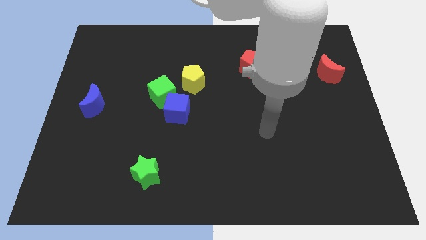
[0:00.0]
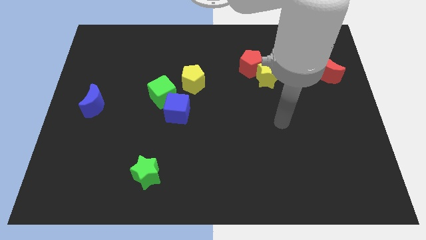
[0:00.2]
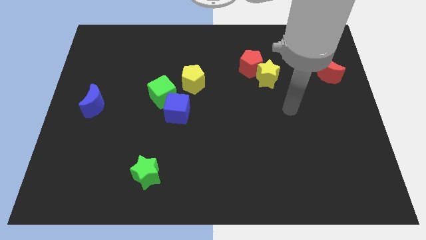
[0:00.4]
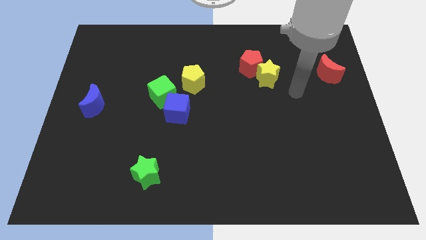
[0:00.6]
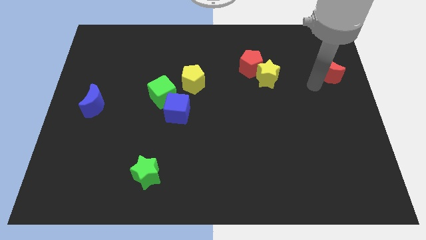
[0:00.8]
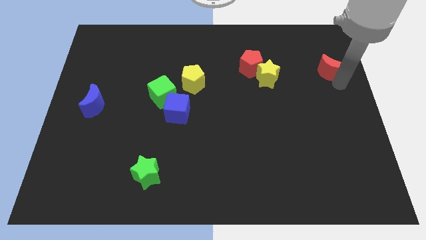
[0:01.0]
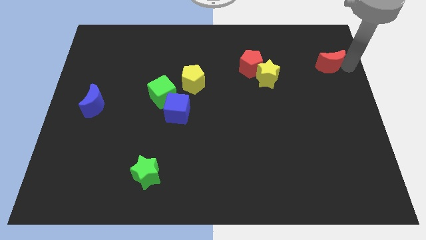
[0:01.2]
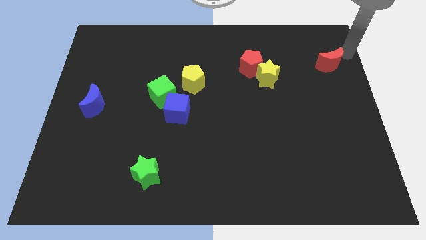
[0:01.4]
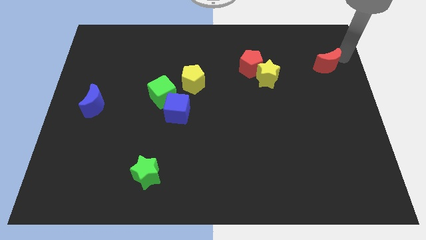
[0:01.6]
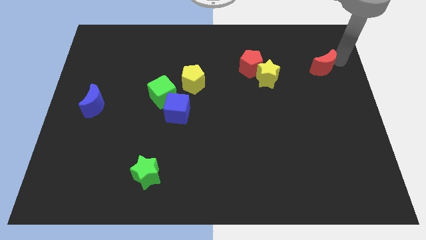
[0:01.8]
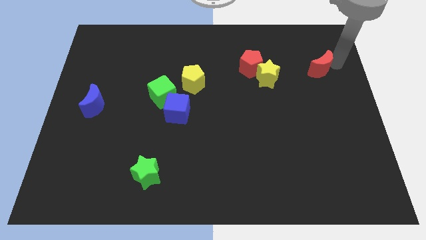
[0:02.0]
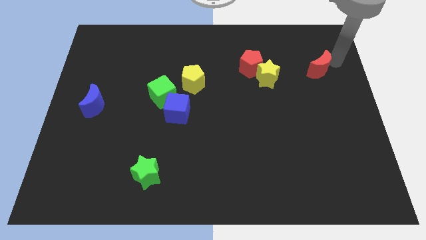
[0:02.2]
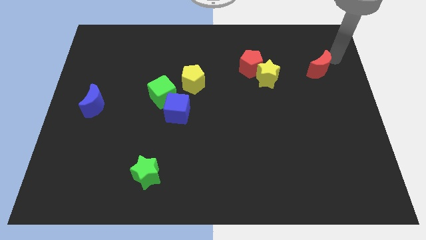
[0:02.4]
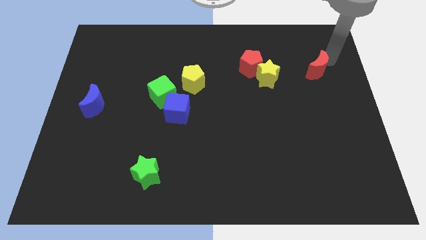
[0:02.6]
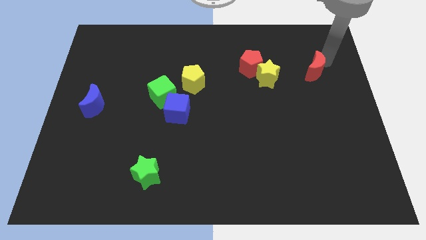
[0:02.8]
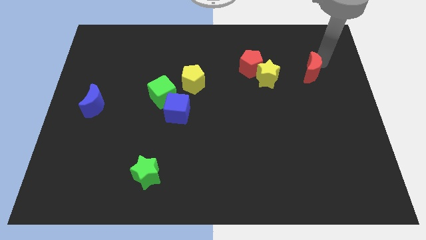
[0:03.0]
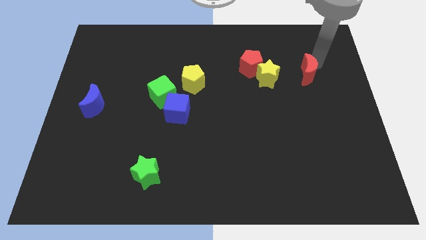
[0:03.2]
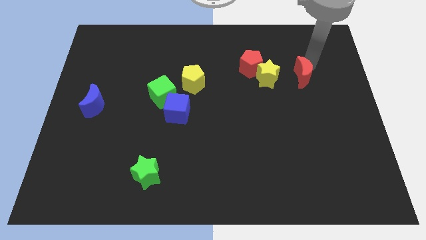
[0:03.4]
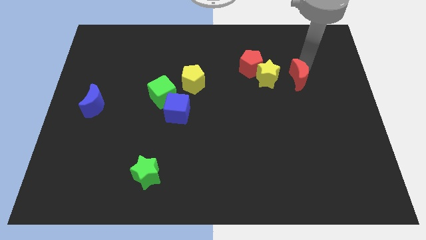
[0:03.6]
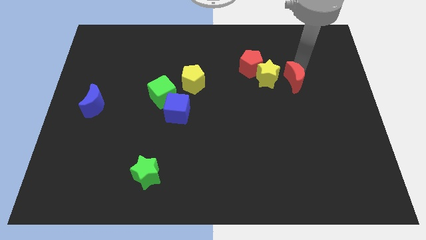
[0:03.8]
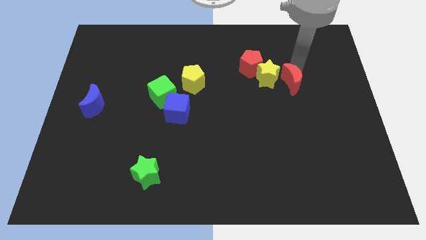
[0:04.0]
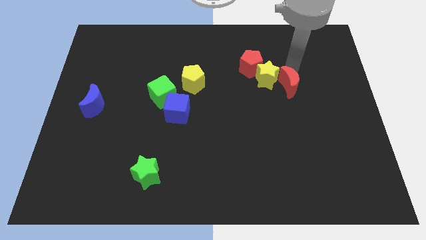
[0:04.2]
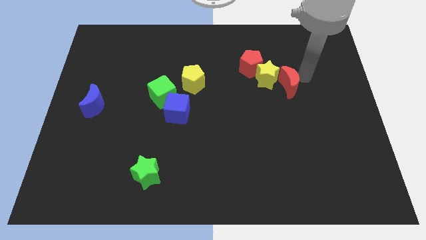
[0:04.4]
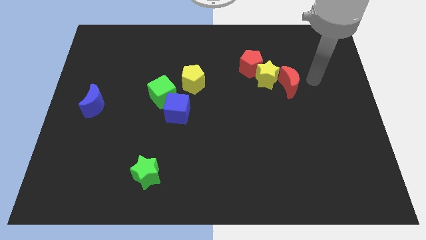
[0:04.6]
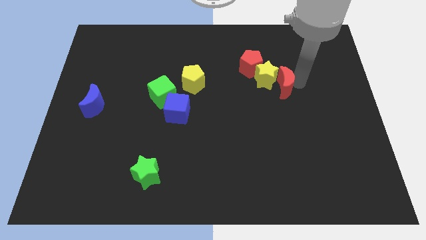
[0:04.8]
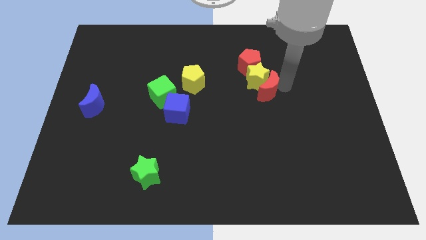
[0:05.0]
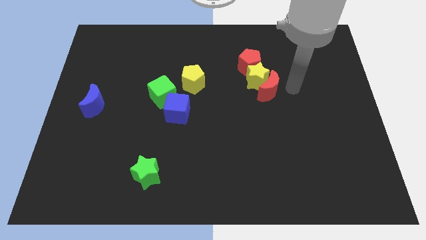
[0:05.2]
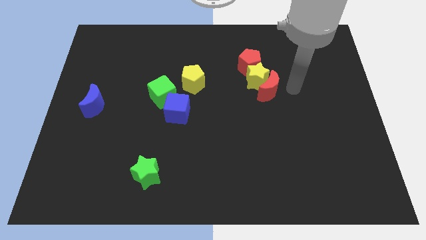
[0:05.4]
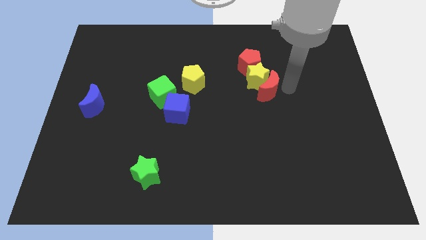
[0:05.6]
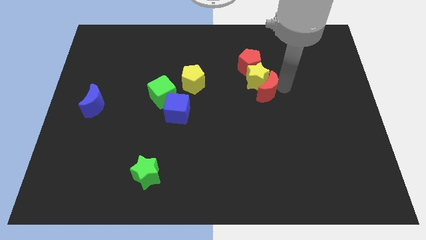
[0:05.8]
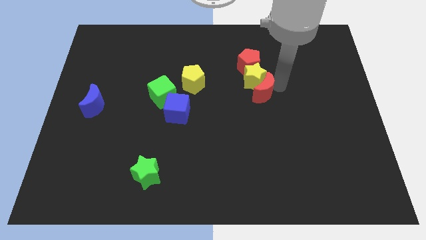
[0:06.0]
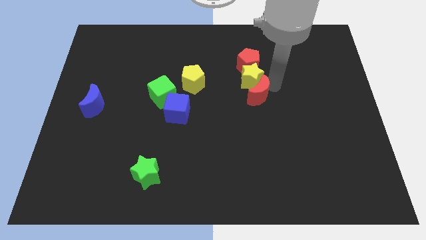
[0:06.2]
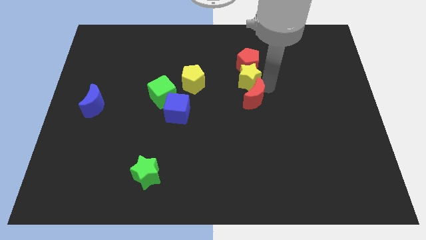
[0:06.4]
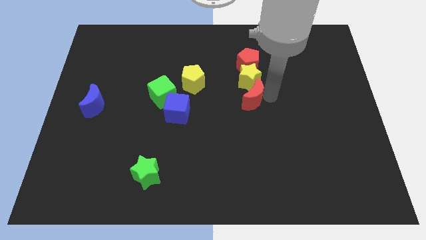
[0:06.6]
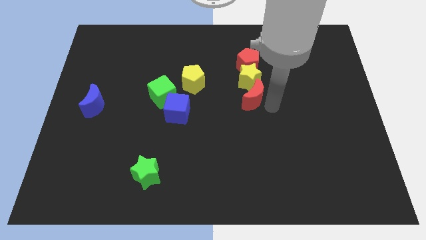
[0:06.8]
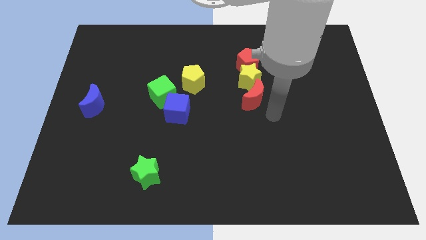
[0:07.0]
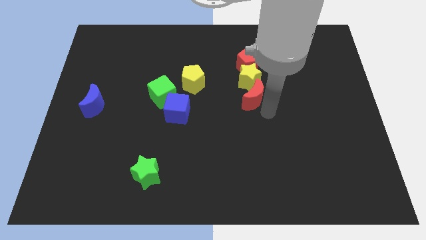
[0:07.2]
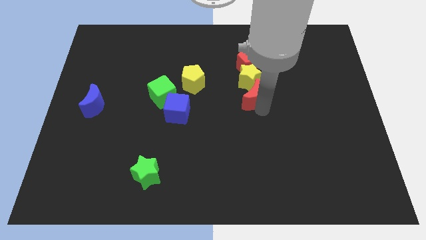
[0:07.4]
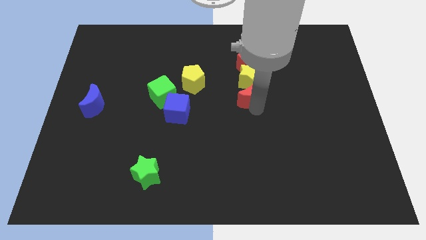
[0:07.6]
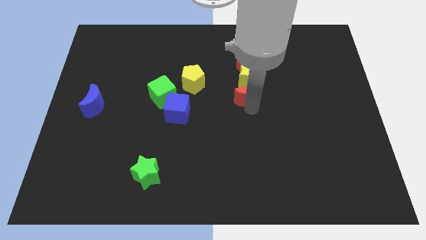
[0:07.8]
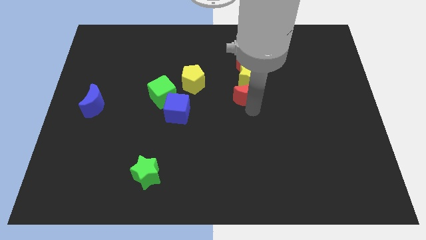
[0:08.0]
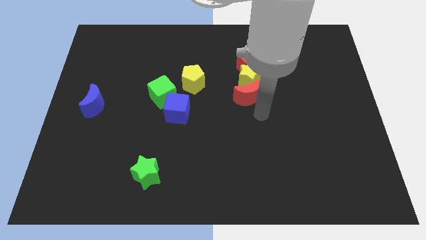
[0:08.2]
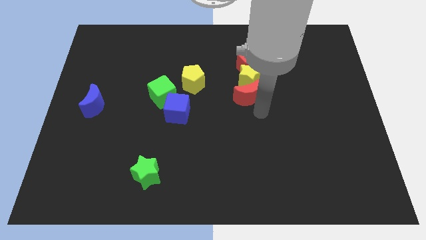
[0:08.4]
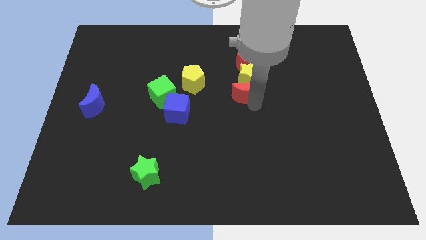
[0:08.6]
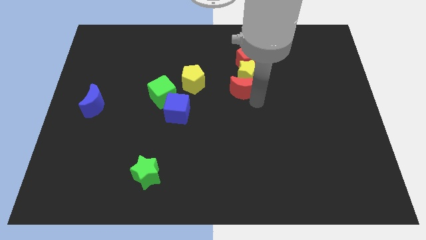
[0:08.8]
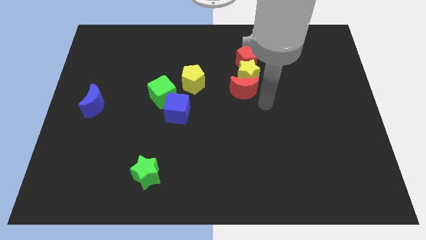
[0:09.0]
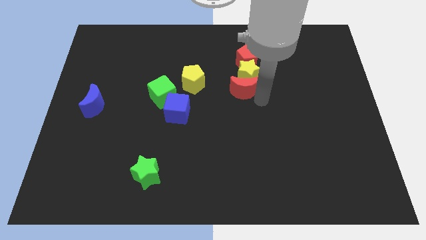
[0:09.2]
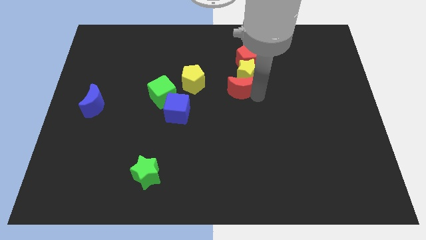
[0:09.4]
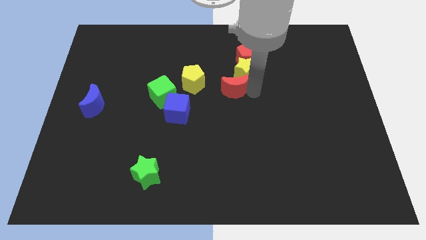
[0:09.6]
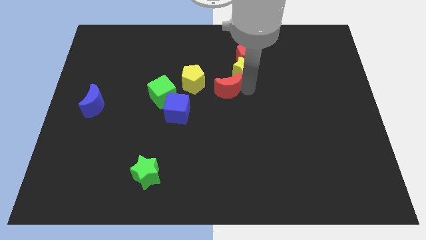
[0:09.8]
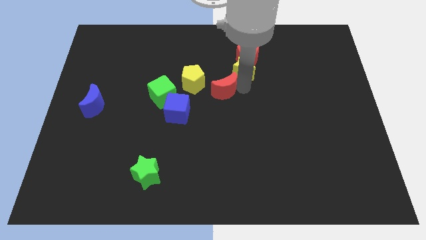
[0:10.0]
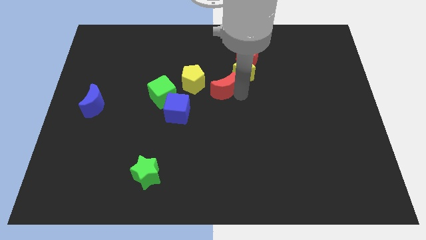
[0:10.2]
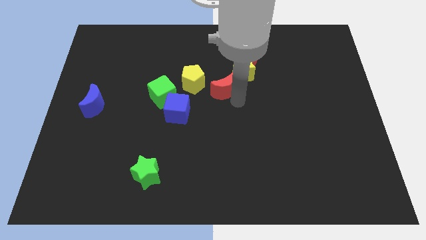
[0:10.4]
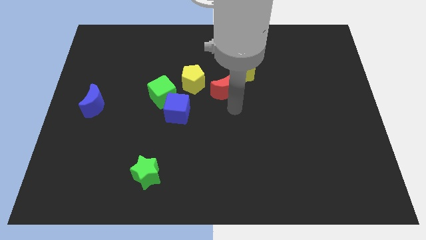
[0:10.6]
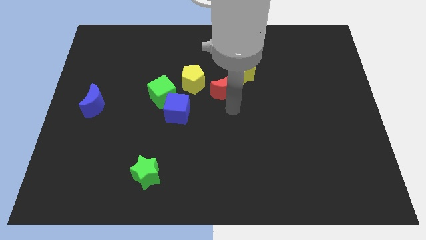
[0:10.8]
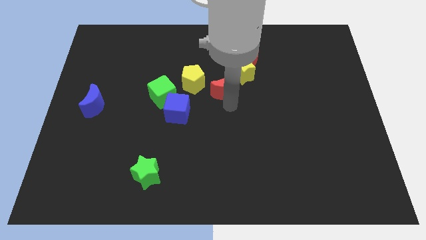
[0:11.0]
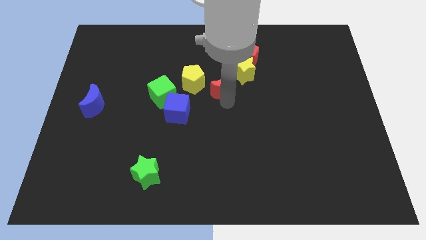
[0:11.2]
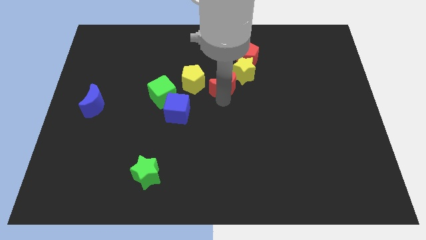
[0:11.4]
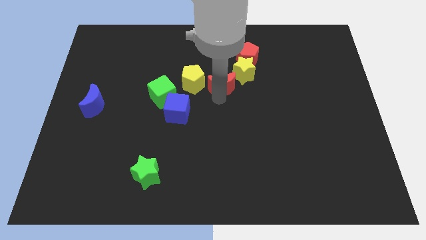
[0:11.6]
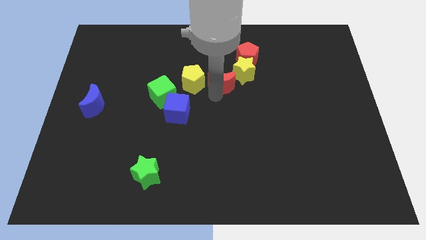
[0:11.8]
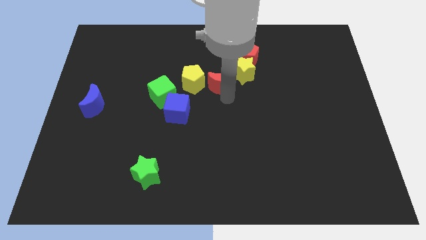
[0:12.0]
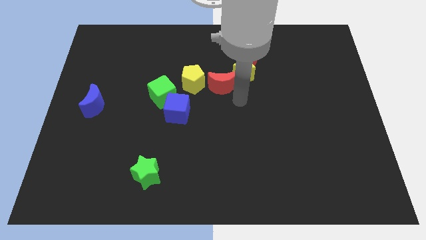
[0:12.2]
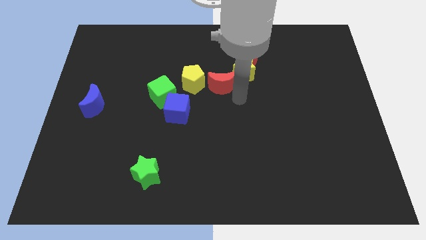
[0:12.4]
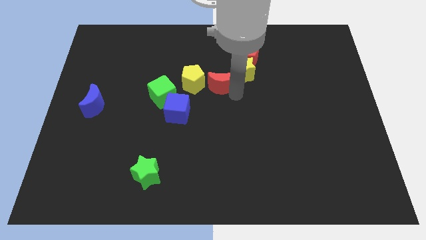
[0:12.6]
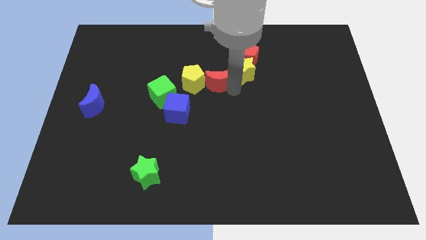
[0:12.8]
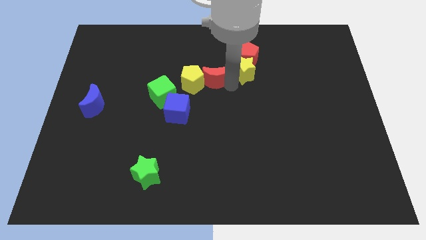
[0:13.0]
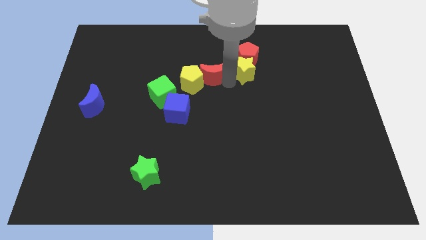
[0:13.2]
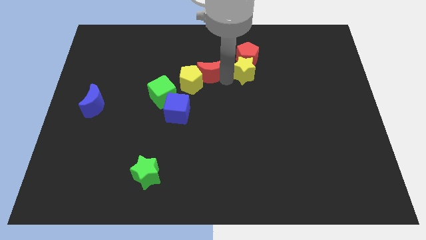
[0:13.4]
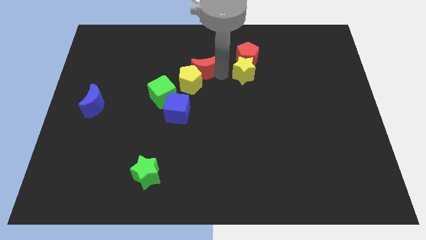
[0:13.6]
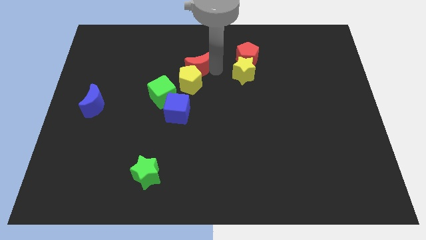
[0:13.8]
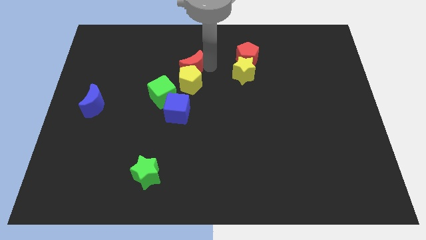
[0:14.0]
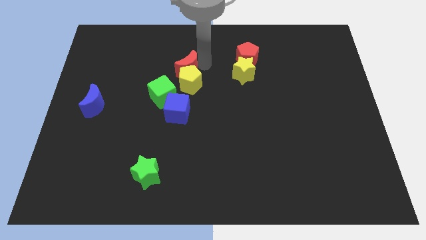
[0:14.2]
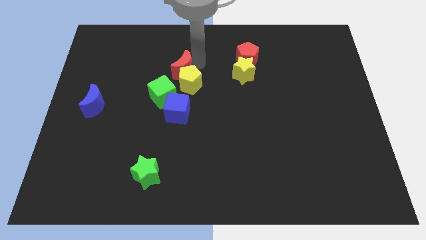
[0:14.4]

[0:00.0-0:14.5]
push the red moon to the top side of the green cube
